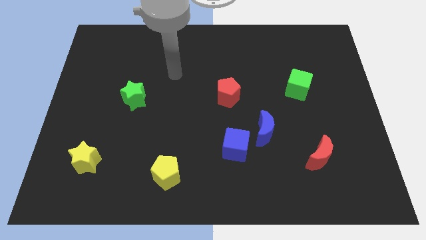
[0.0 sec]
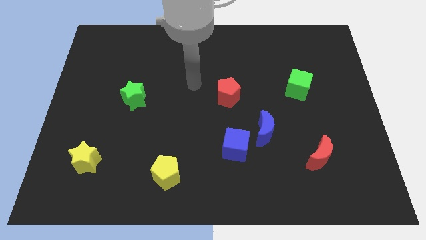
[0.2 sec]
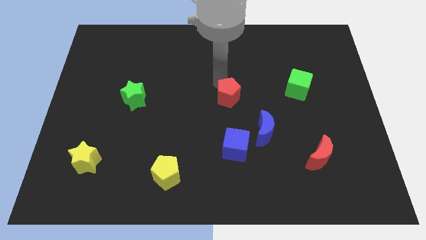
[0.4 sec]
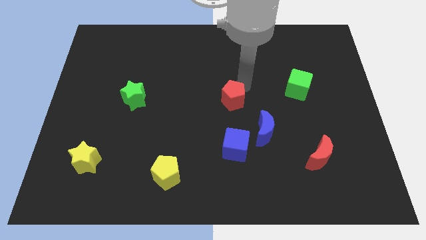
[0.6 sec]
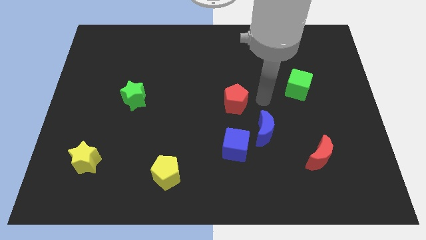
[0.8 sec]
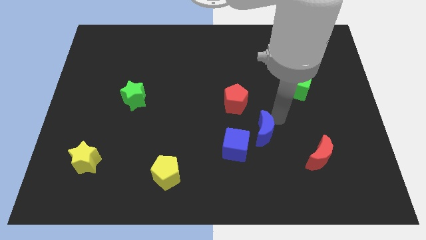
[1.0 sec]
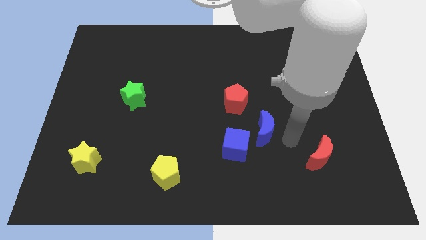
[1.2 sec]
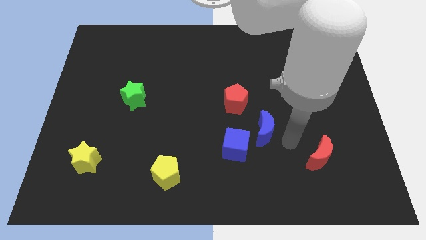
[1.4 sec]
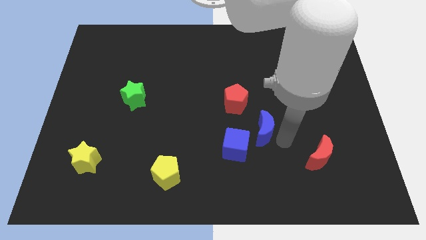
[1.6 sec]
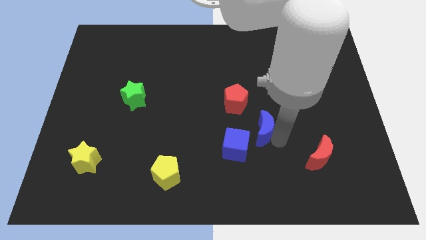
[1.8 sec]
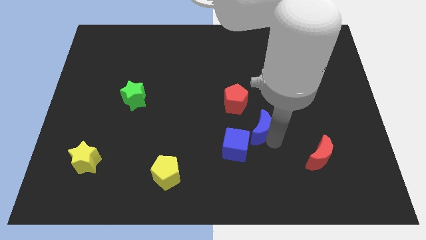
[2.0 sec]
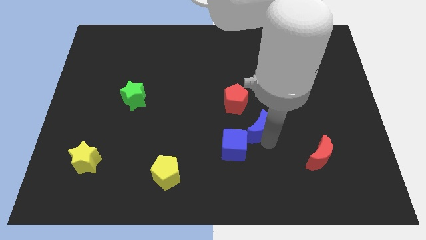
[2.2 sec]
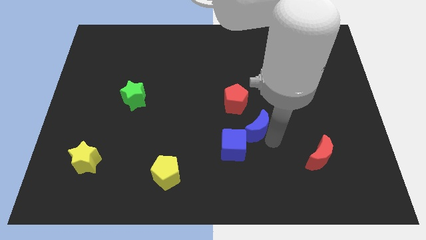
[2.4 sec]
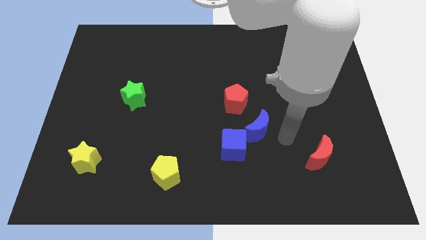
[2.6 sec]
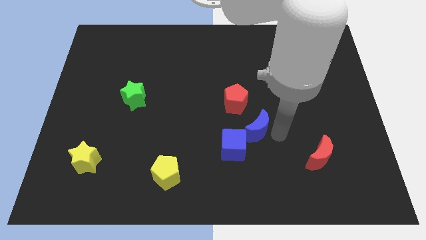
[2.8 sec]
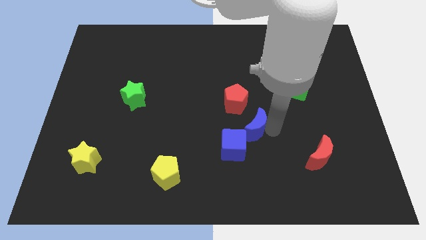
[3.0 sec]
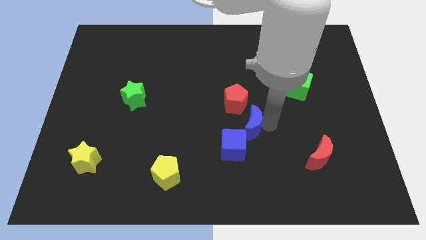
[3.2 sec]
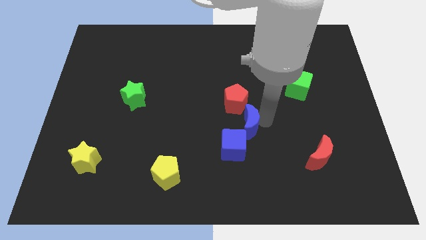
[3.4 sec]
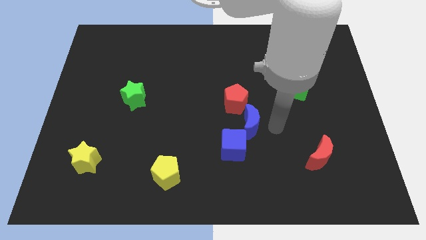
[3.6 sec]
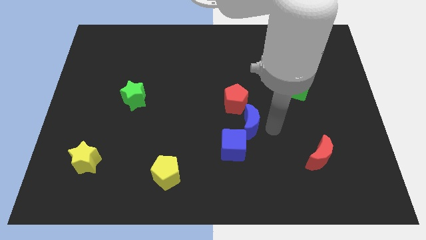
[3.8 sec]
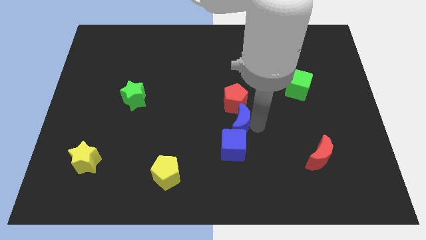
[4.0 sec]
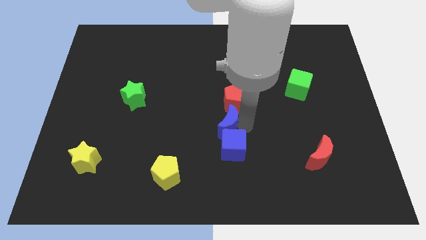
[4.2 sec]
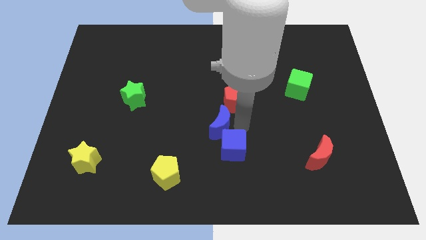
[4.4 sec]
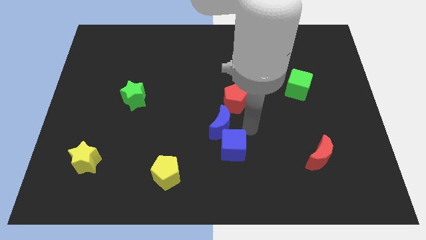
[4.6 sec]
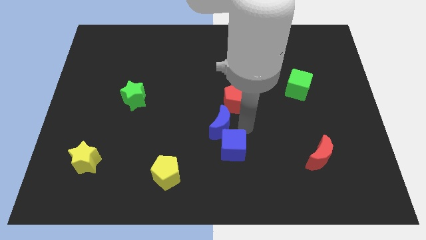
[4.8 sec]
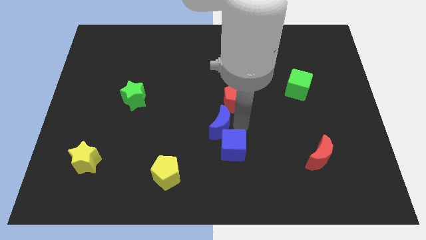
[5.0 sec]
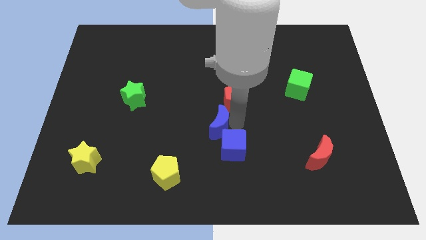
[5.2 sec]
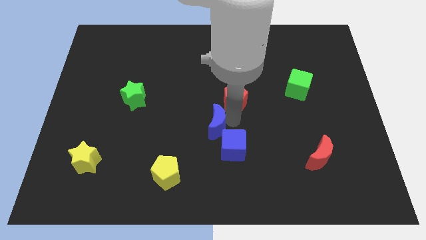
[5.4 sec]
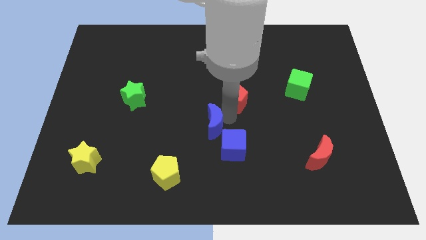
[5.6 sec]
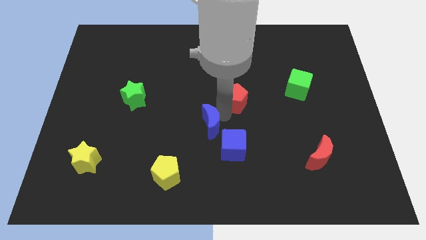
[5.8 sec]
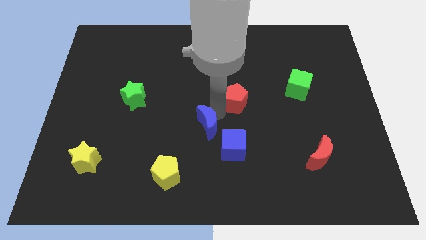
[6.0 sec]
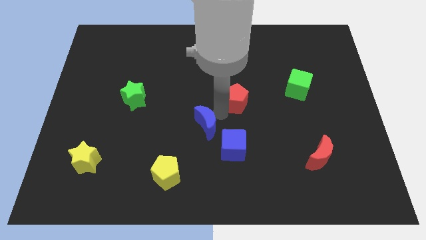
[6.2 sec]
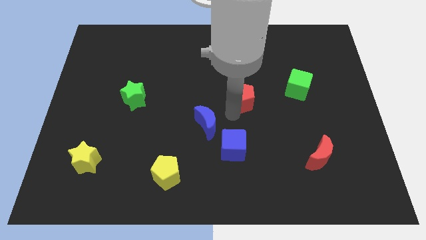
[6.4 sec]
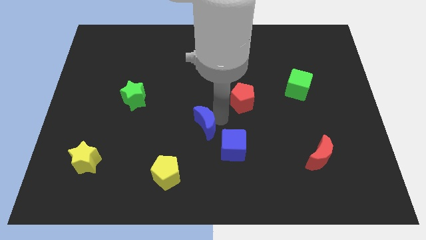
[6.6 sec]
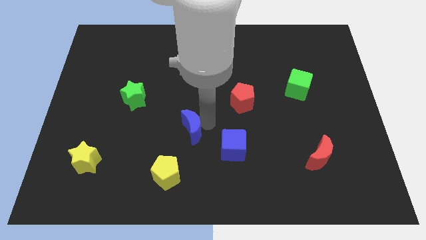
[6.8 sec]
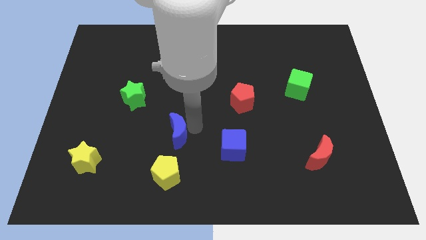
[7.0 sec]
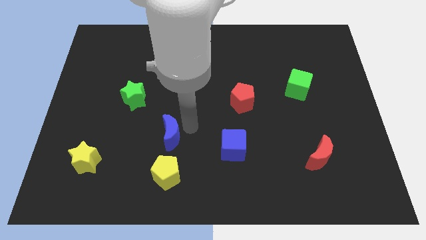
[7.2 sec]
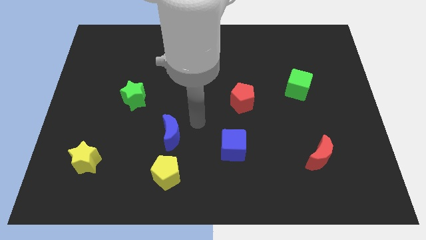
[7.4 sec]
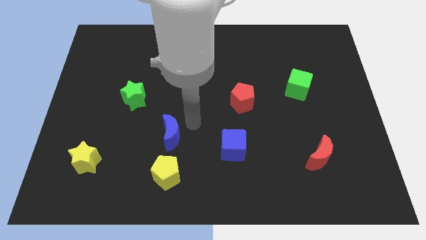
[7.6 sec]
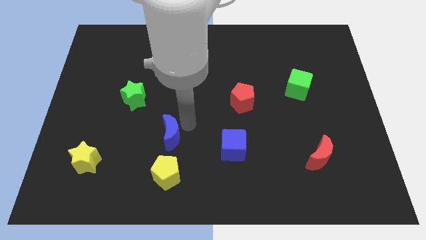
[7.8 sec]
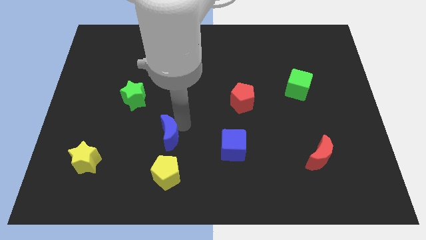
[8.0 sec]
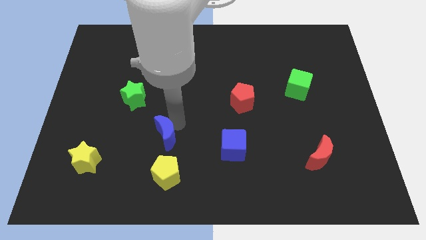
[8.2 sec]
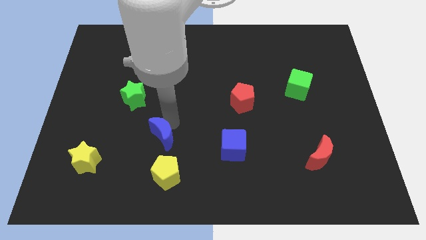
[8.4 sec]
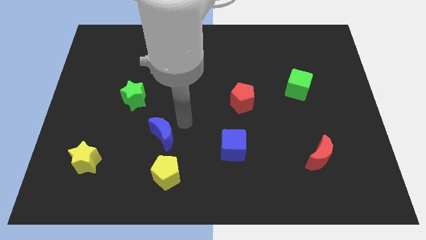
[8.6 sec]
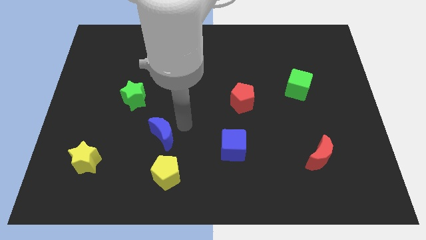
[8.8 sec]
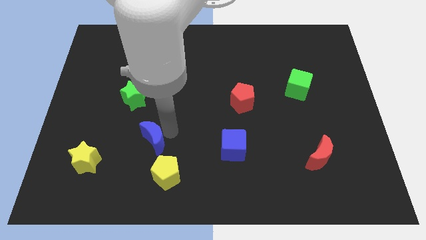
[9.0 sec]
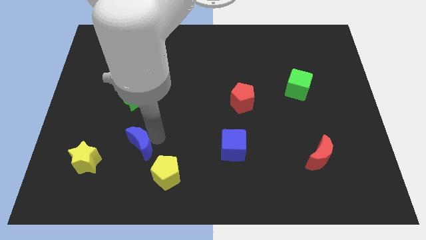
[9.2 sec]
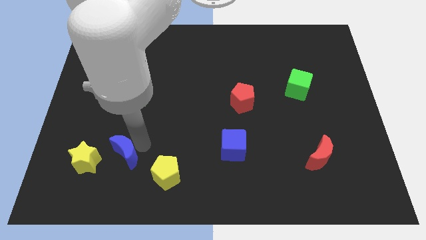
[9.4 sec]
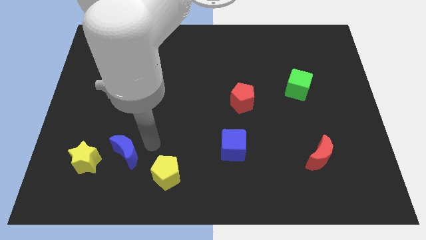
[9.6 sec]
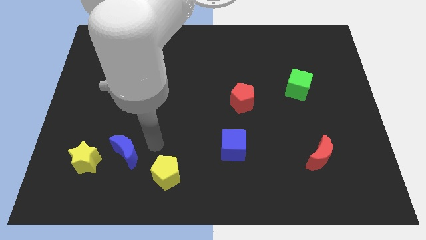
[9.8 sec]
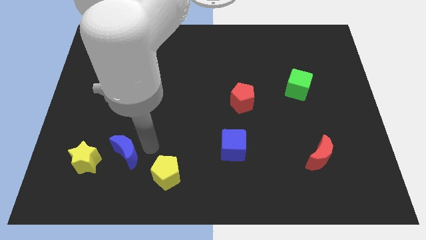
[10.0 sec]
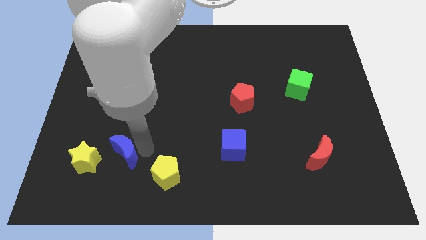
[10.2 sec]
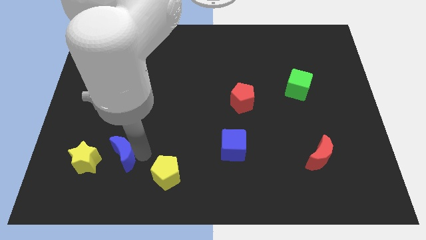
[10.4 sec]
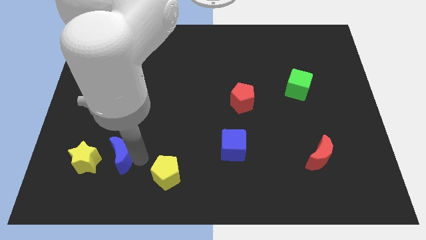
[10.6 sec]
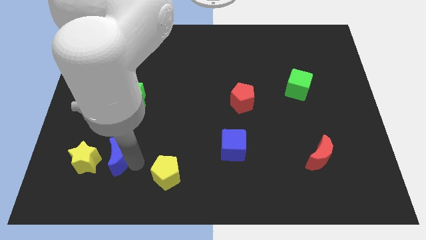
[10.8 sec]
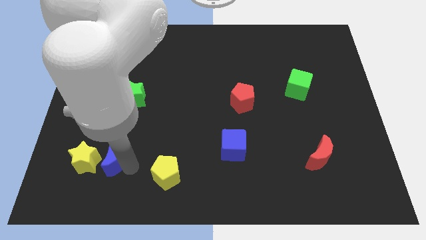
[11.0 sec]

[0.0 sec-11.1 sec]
slide the blue moon next to the yellow star

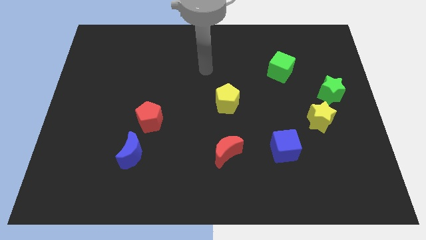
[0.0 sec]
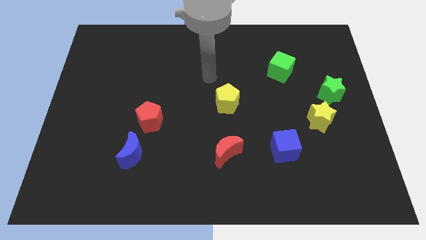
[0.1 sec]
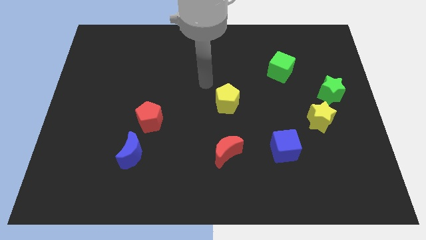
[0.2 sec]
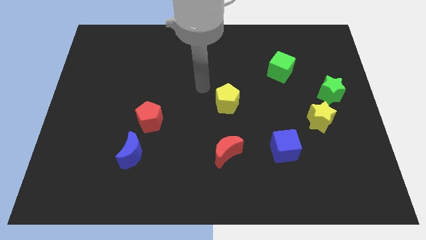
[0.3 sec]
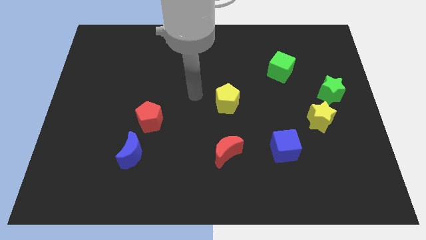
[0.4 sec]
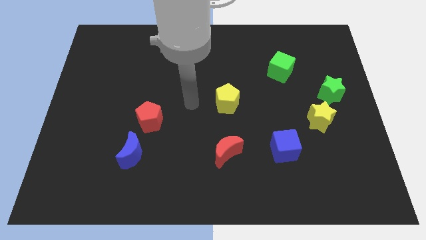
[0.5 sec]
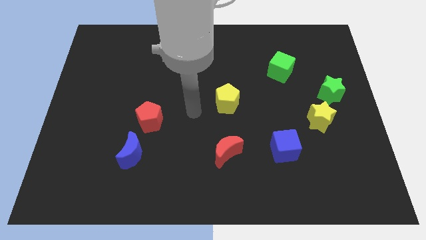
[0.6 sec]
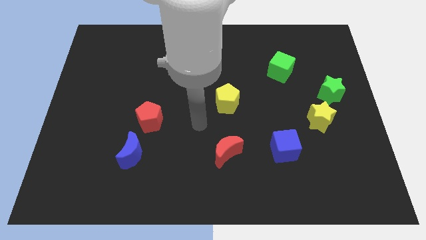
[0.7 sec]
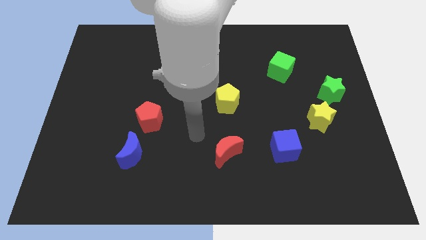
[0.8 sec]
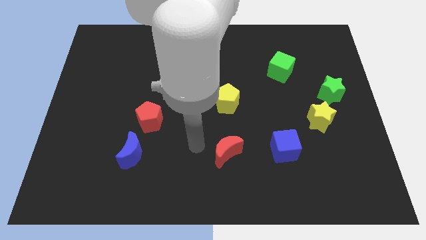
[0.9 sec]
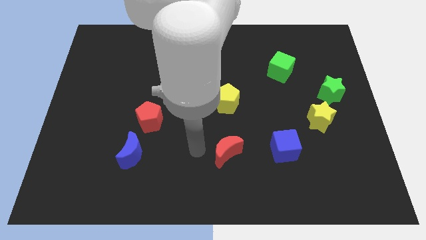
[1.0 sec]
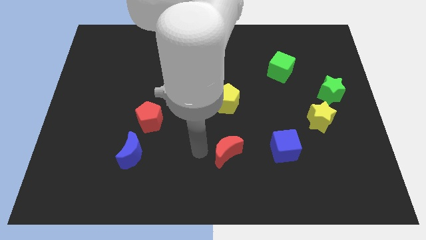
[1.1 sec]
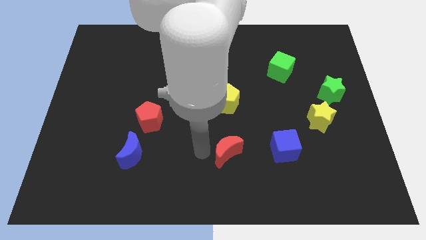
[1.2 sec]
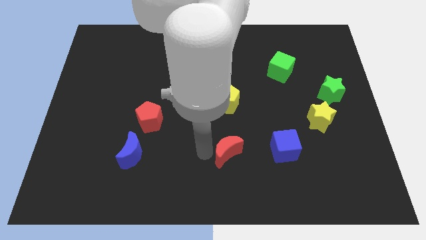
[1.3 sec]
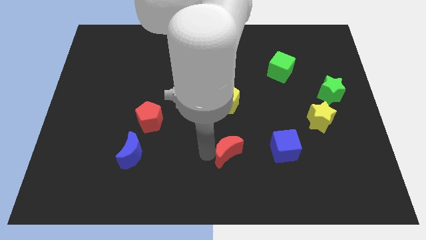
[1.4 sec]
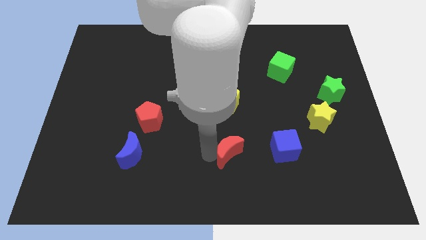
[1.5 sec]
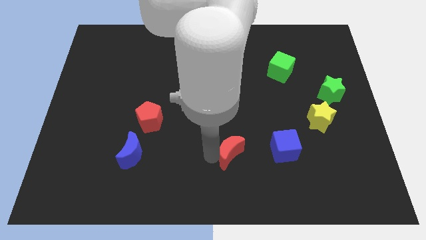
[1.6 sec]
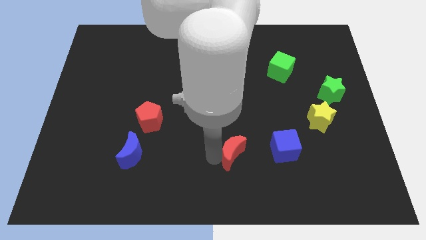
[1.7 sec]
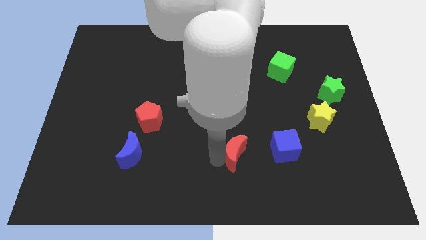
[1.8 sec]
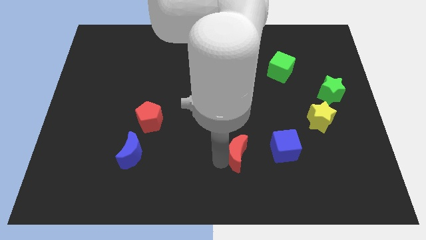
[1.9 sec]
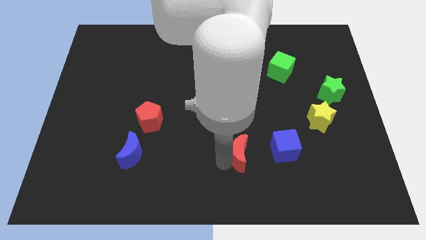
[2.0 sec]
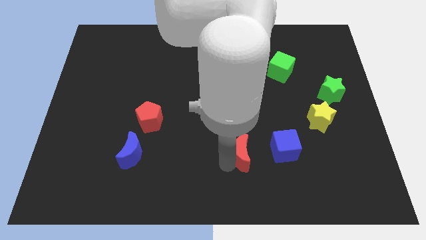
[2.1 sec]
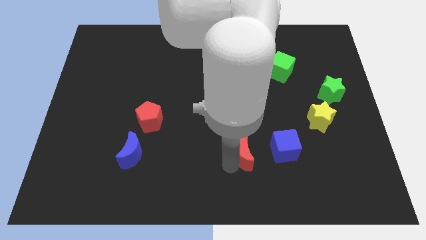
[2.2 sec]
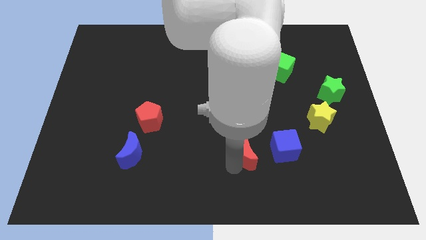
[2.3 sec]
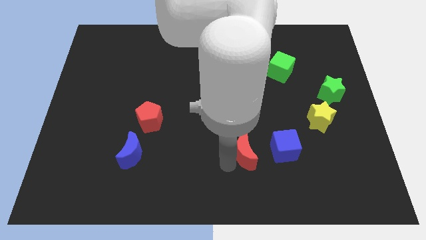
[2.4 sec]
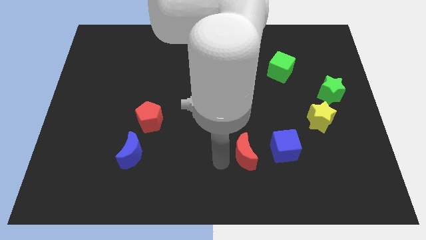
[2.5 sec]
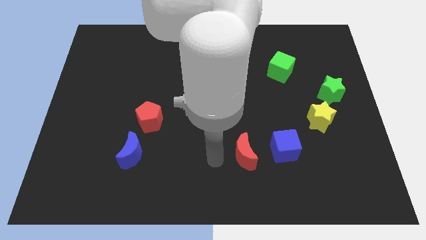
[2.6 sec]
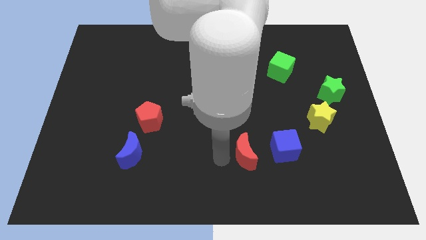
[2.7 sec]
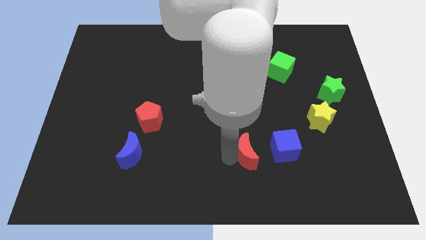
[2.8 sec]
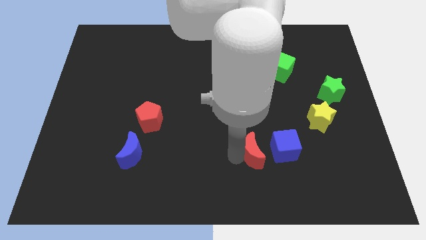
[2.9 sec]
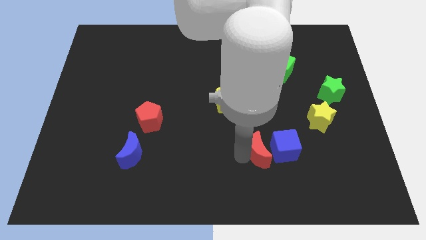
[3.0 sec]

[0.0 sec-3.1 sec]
push the red moon close to the blue cube
